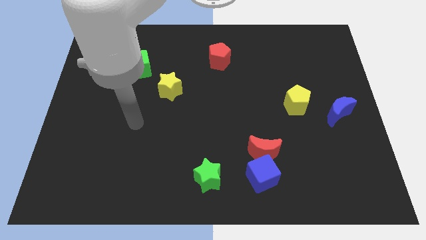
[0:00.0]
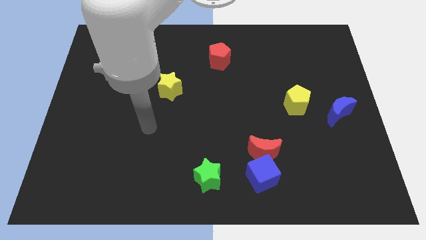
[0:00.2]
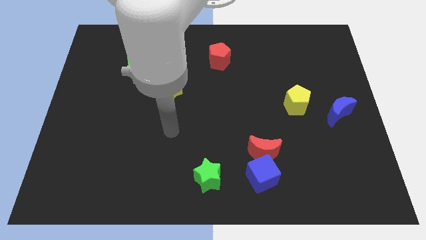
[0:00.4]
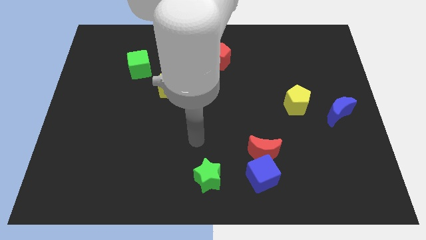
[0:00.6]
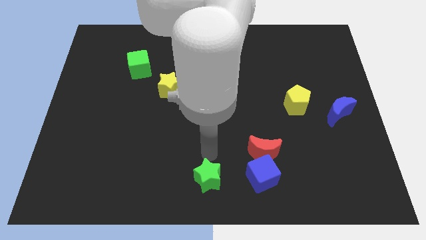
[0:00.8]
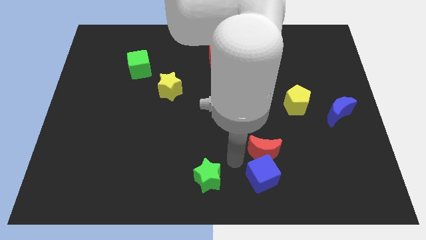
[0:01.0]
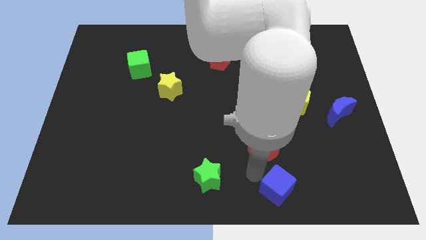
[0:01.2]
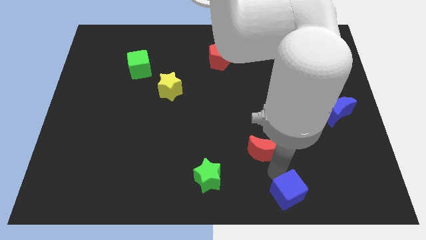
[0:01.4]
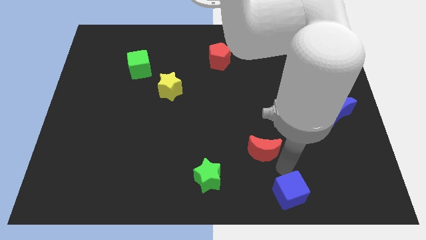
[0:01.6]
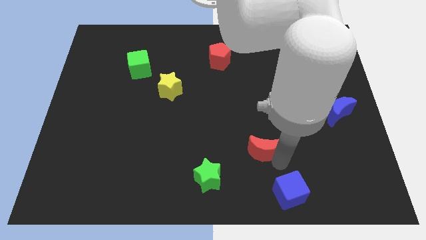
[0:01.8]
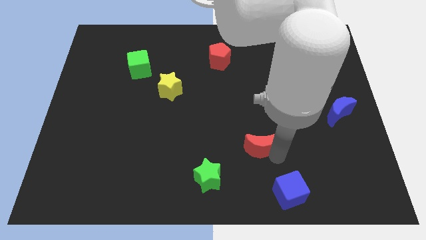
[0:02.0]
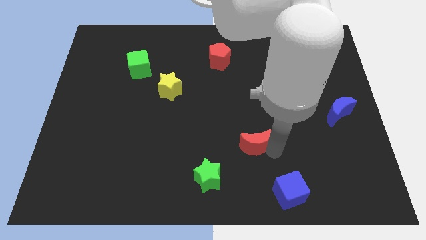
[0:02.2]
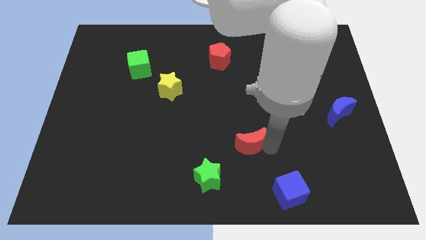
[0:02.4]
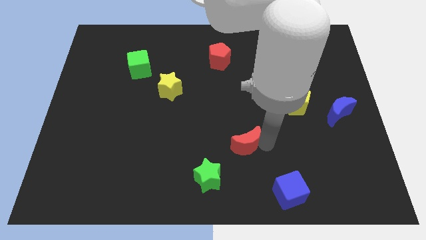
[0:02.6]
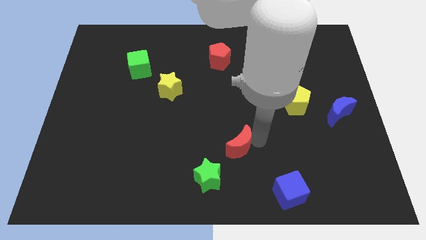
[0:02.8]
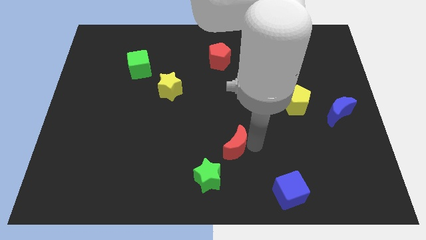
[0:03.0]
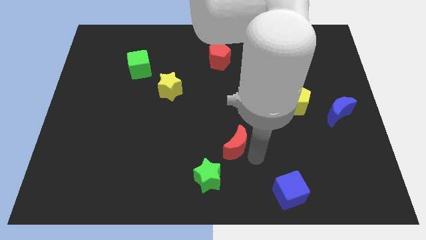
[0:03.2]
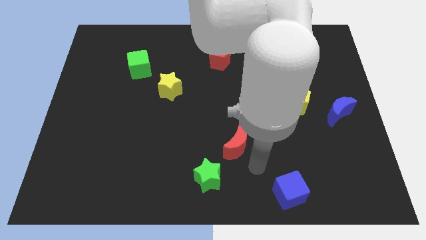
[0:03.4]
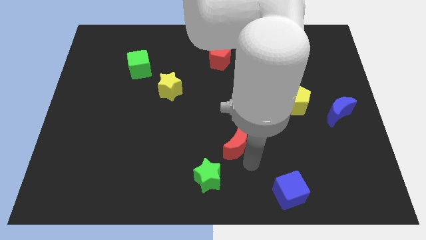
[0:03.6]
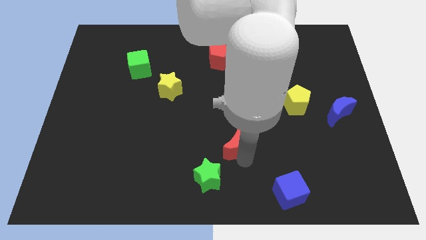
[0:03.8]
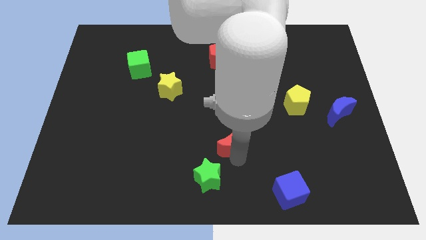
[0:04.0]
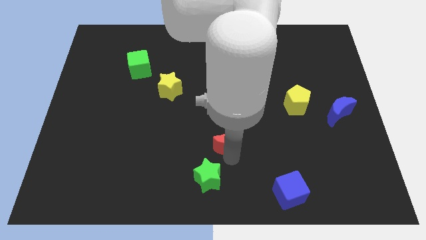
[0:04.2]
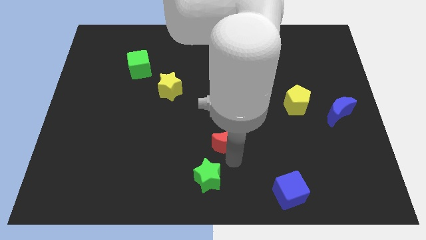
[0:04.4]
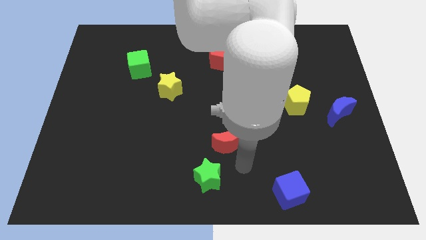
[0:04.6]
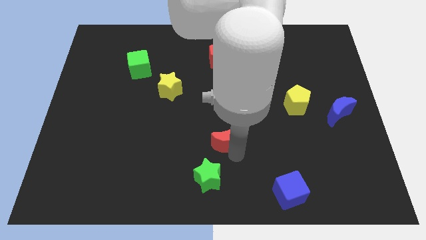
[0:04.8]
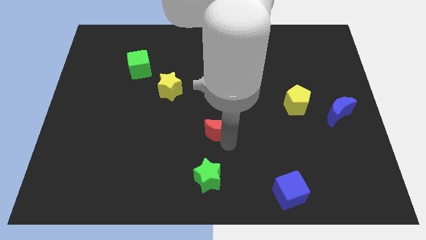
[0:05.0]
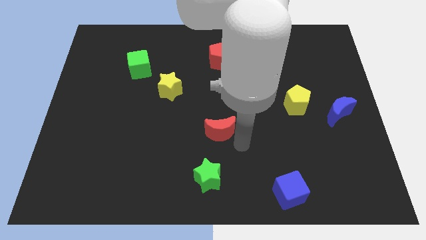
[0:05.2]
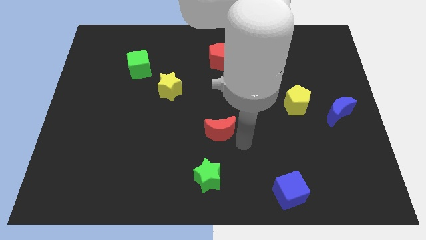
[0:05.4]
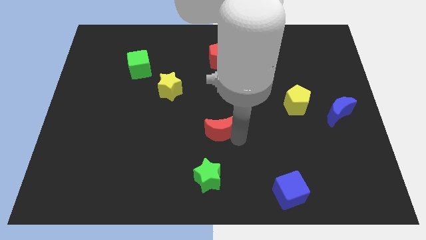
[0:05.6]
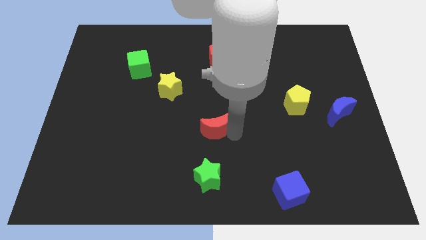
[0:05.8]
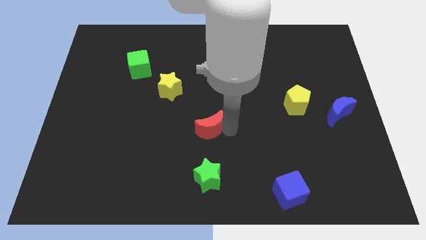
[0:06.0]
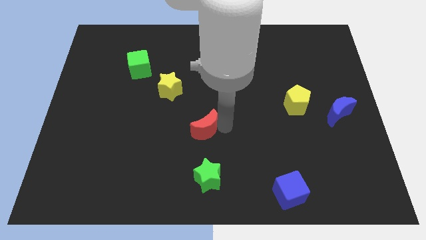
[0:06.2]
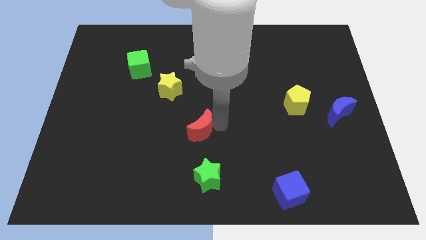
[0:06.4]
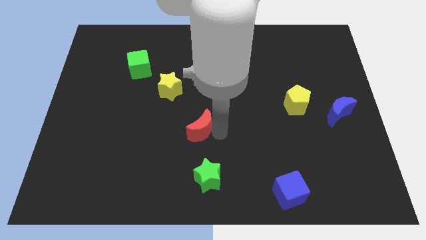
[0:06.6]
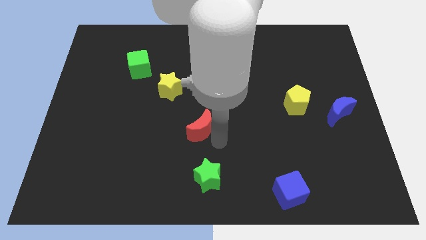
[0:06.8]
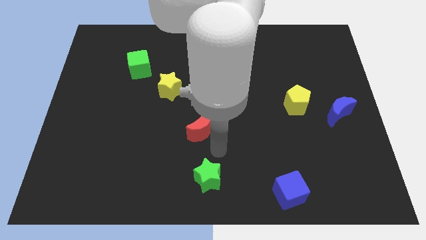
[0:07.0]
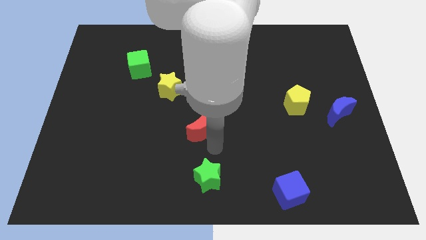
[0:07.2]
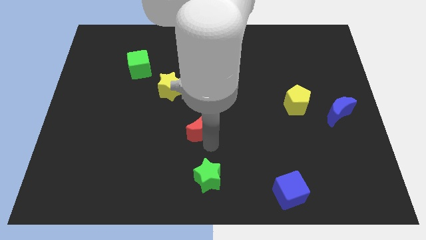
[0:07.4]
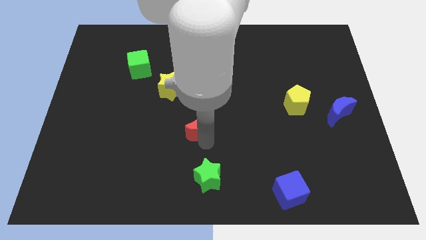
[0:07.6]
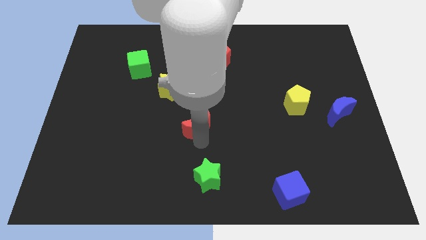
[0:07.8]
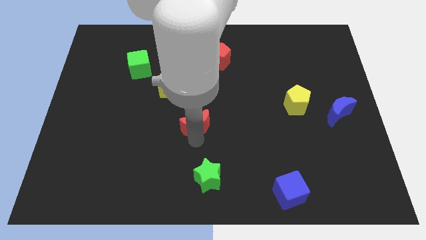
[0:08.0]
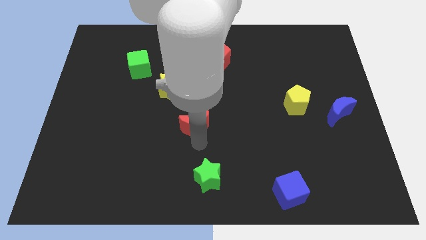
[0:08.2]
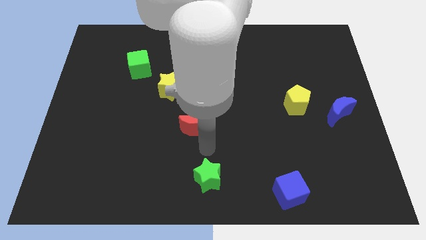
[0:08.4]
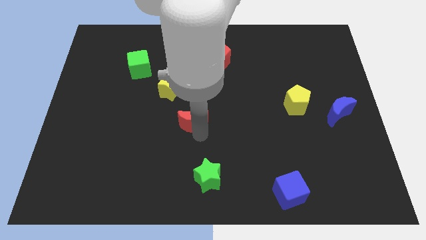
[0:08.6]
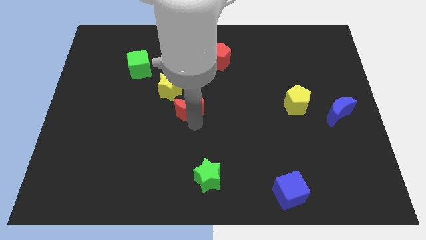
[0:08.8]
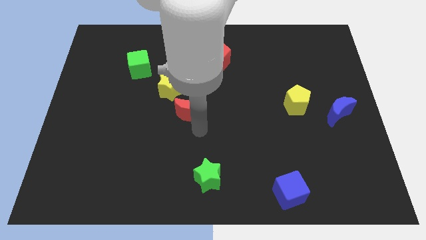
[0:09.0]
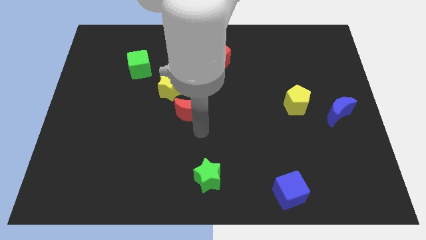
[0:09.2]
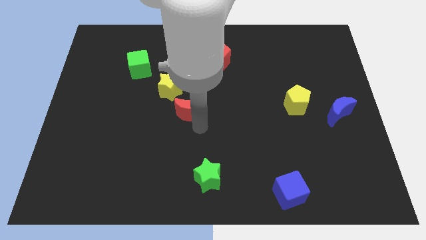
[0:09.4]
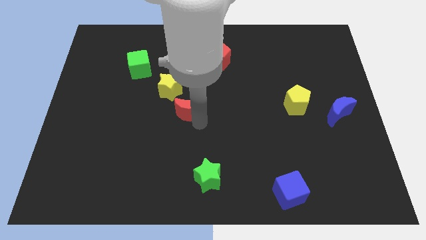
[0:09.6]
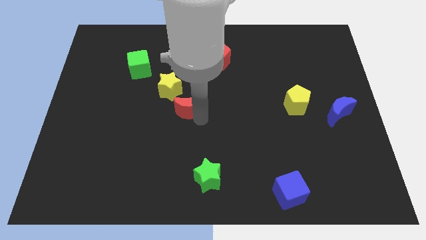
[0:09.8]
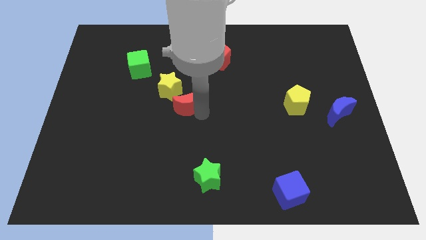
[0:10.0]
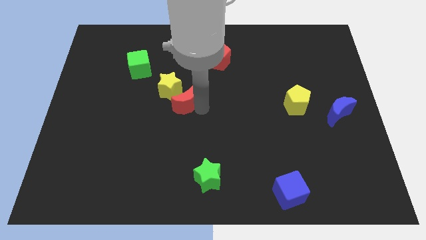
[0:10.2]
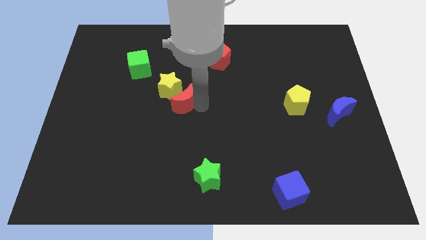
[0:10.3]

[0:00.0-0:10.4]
push the red moon towards the yellow star
